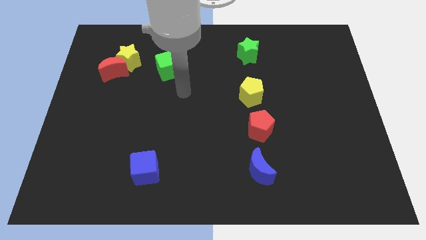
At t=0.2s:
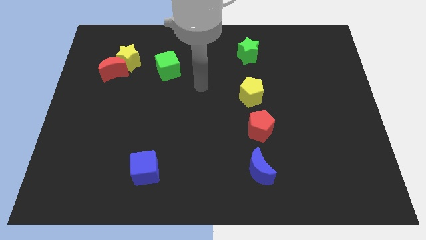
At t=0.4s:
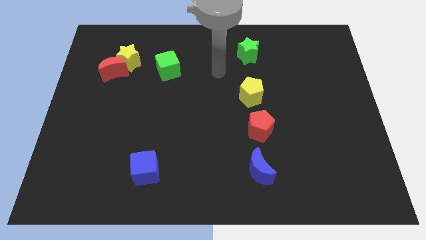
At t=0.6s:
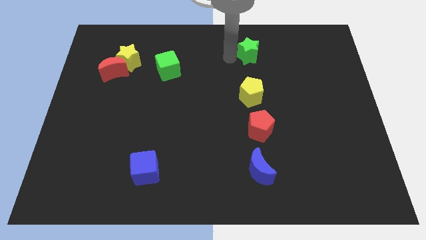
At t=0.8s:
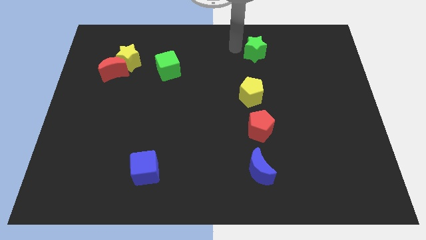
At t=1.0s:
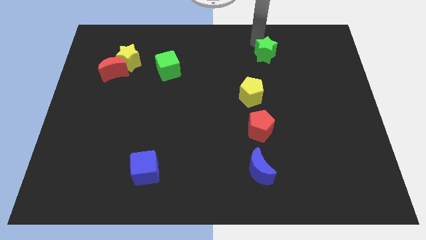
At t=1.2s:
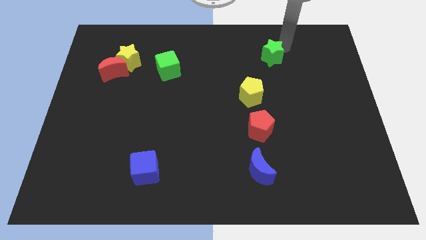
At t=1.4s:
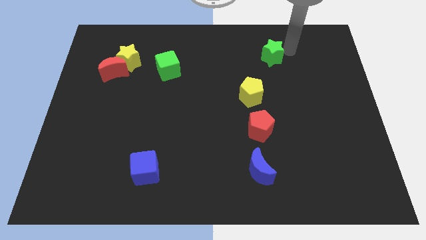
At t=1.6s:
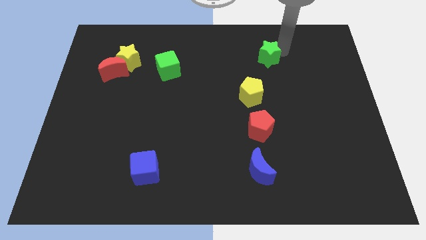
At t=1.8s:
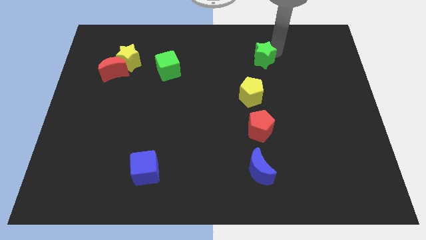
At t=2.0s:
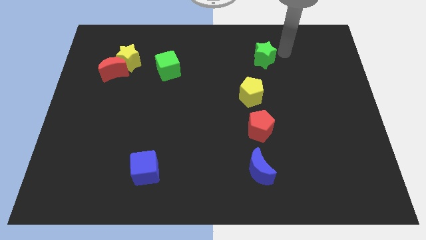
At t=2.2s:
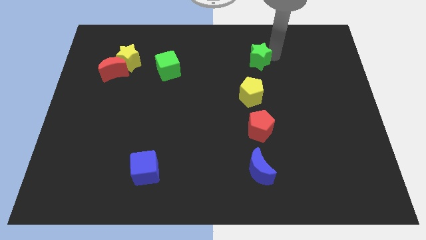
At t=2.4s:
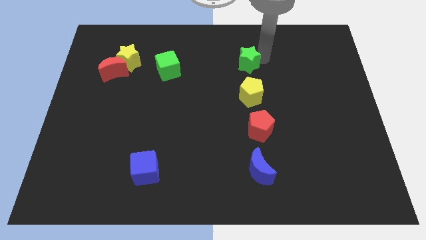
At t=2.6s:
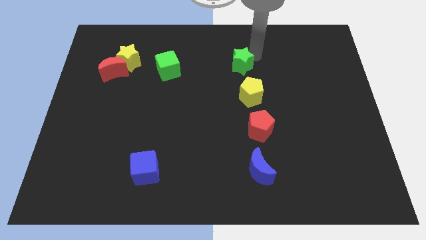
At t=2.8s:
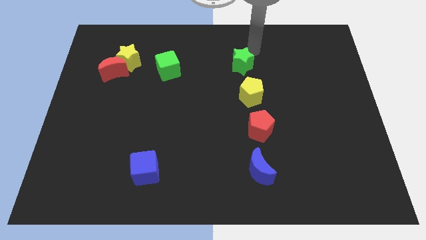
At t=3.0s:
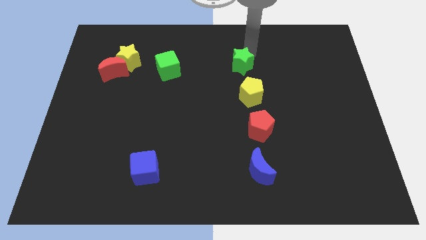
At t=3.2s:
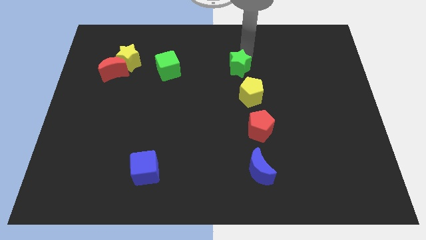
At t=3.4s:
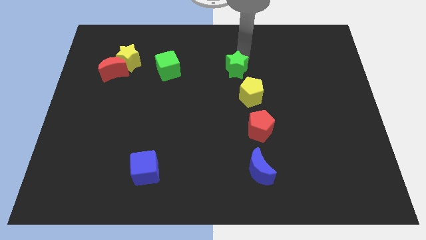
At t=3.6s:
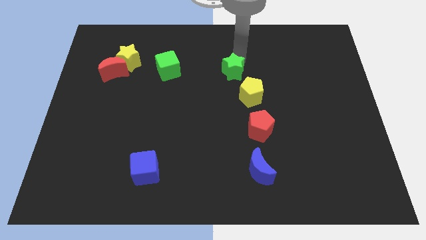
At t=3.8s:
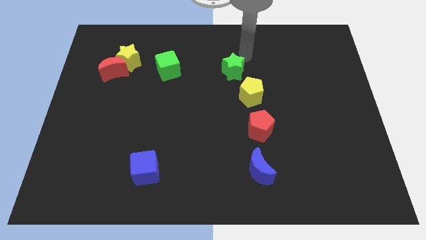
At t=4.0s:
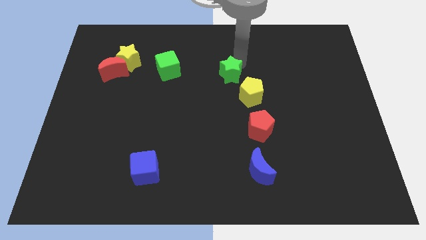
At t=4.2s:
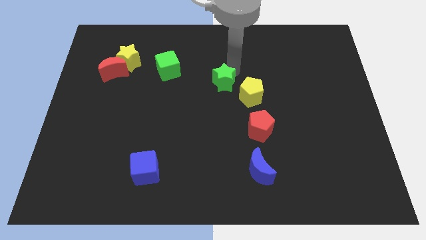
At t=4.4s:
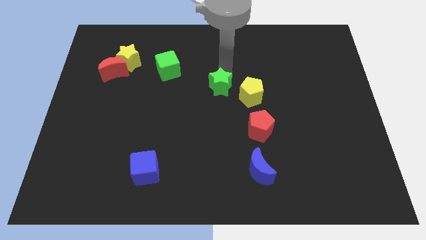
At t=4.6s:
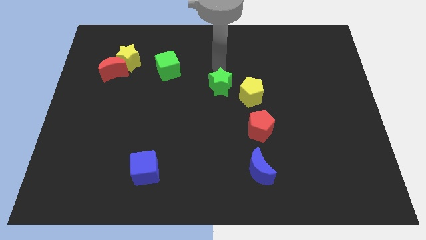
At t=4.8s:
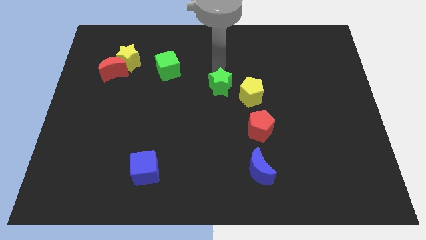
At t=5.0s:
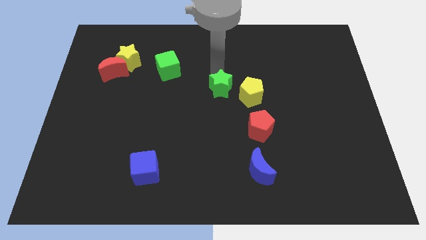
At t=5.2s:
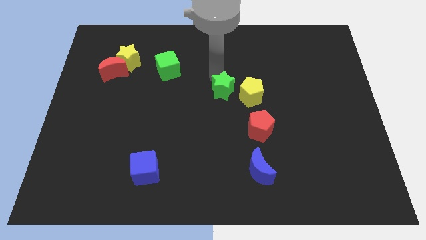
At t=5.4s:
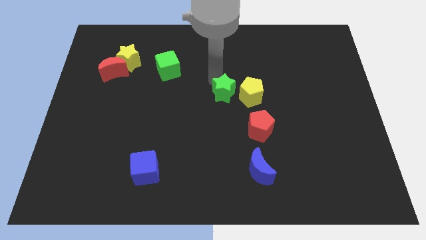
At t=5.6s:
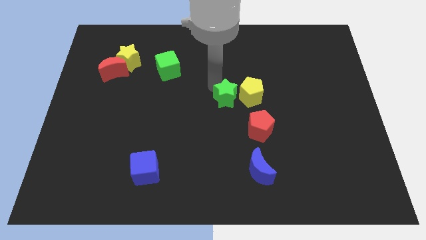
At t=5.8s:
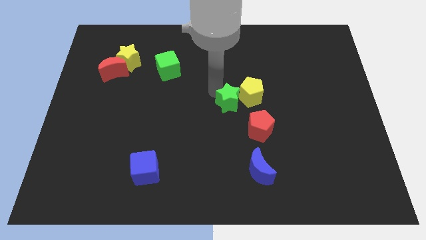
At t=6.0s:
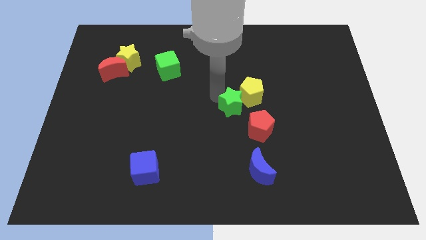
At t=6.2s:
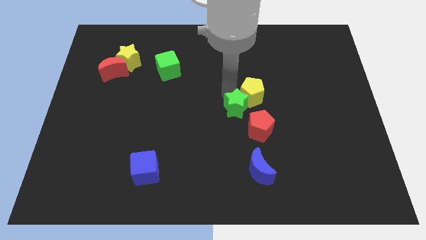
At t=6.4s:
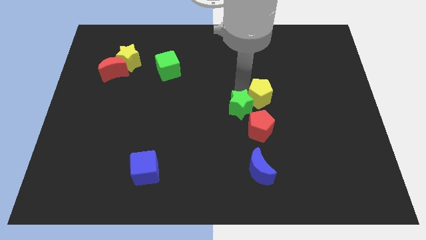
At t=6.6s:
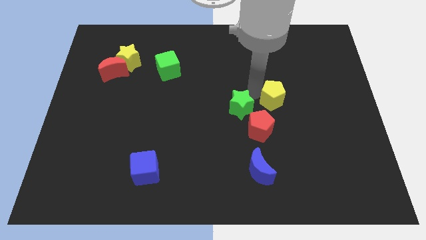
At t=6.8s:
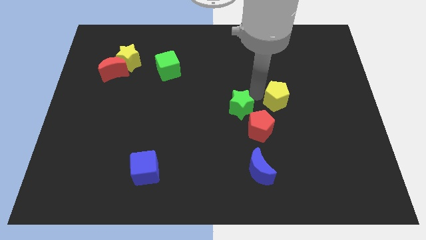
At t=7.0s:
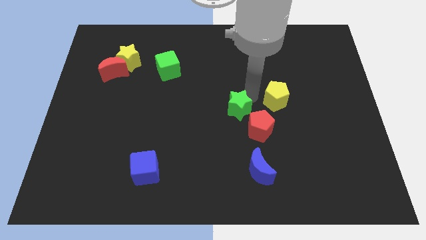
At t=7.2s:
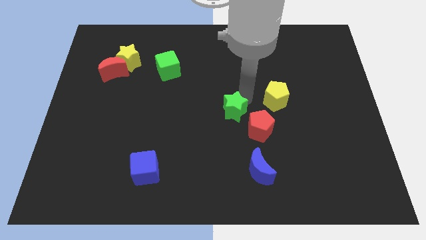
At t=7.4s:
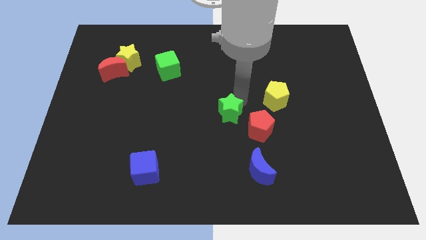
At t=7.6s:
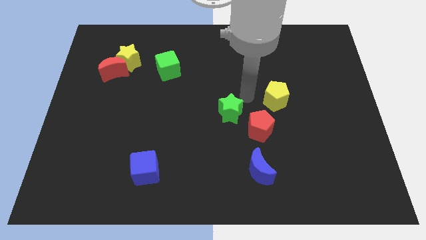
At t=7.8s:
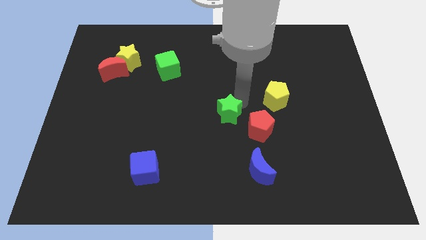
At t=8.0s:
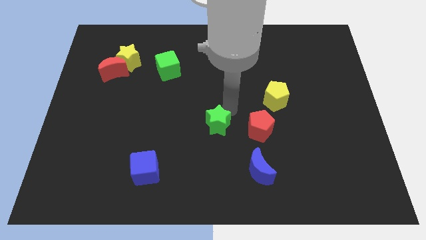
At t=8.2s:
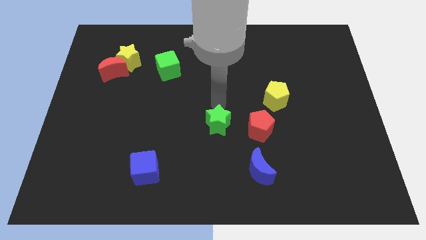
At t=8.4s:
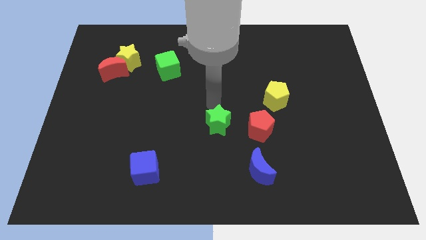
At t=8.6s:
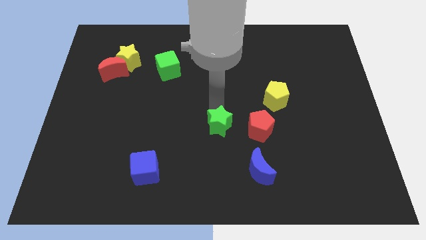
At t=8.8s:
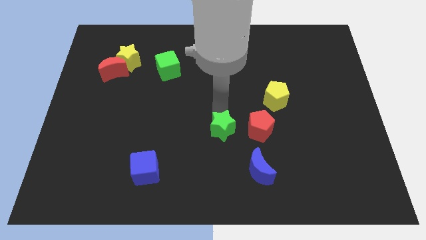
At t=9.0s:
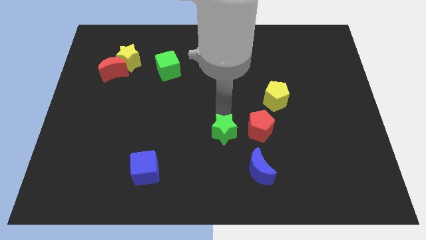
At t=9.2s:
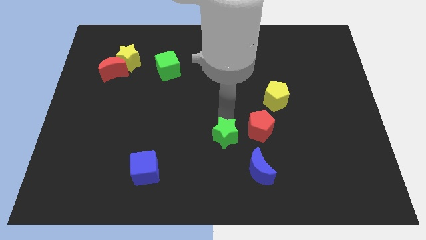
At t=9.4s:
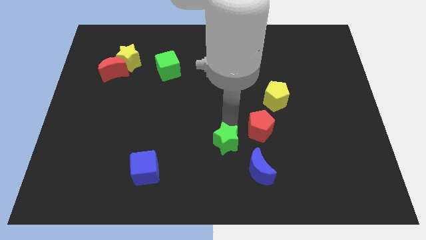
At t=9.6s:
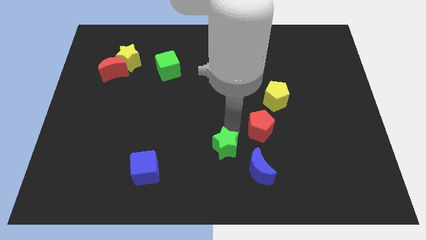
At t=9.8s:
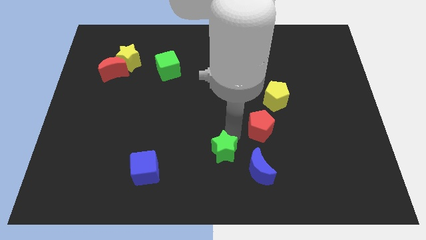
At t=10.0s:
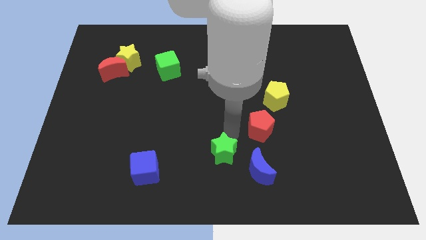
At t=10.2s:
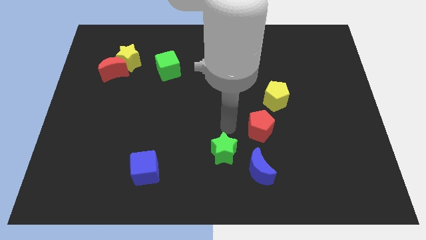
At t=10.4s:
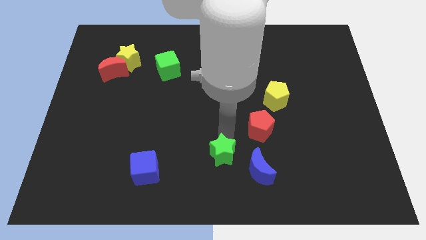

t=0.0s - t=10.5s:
move the green star to the bottom side

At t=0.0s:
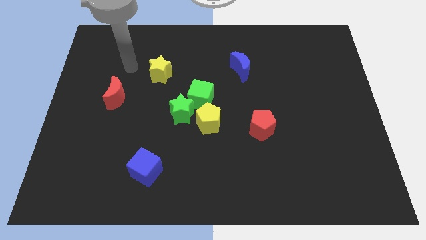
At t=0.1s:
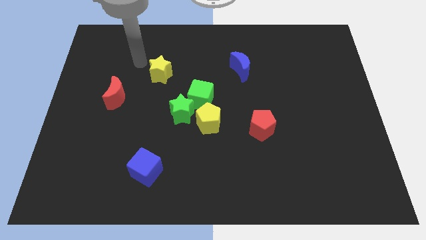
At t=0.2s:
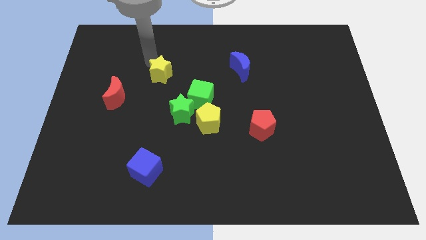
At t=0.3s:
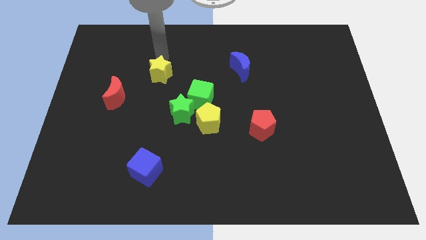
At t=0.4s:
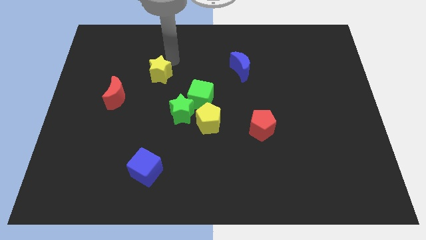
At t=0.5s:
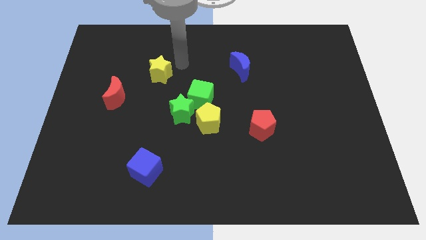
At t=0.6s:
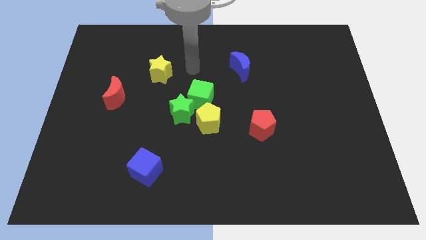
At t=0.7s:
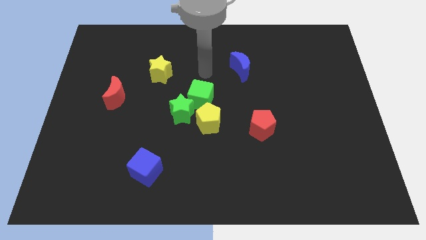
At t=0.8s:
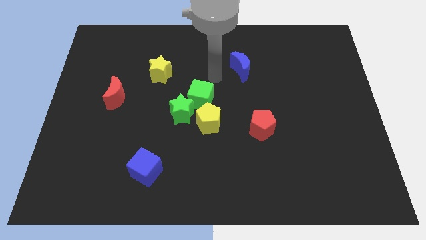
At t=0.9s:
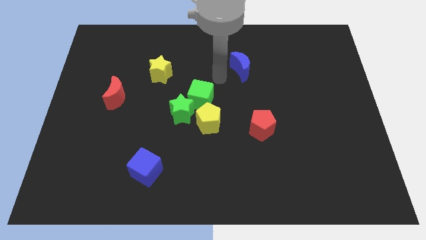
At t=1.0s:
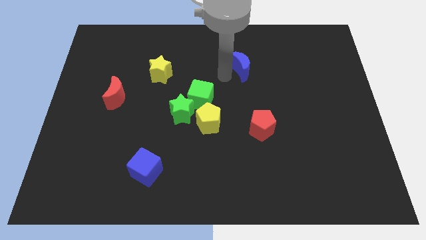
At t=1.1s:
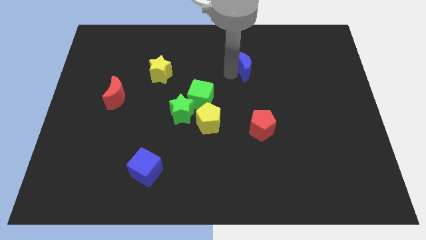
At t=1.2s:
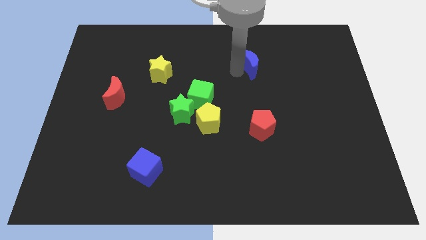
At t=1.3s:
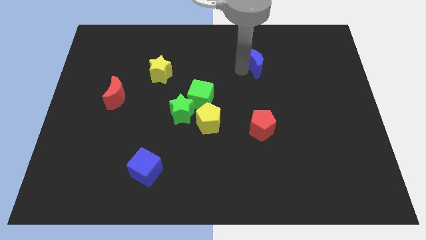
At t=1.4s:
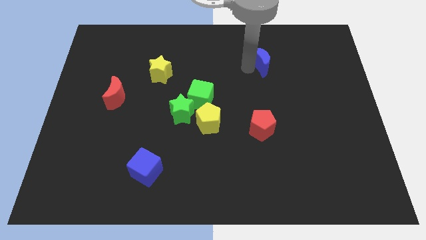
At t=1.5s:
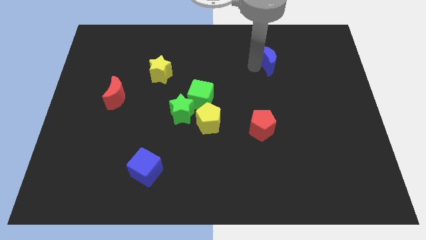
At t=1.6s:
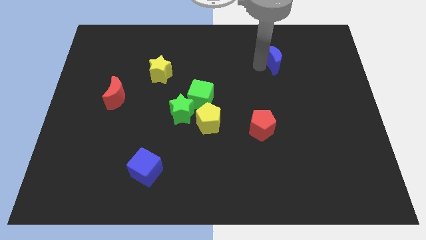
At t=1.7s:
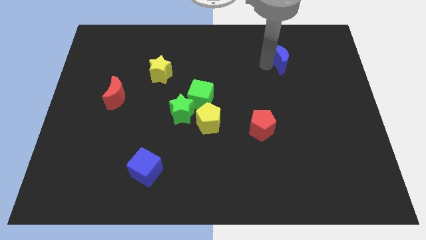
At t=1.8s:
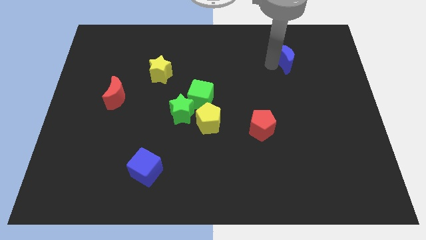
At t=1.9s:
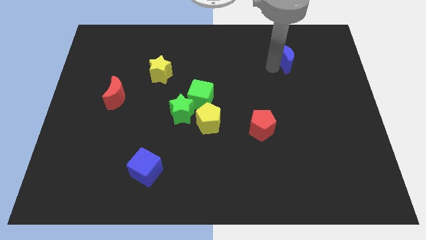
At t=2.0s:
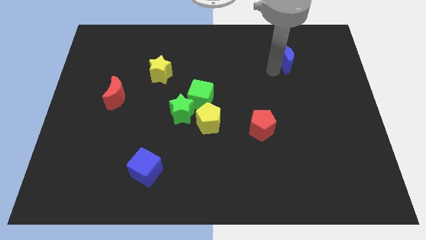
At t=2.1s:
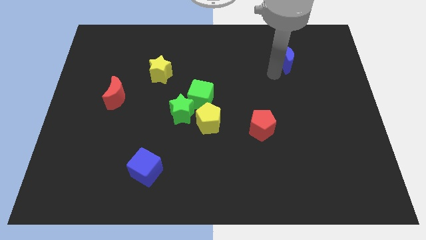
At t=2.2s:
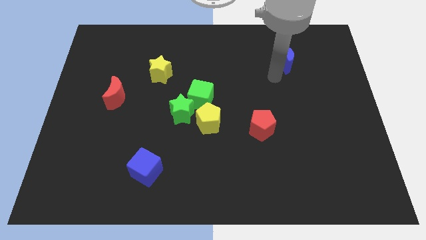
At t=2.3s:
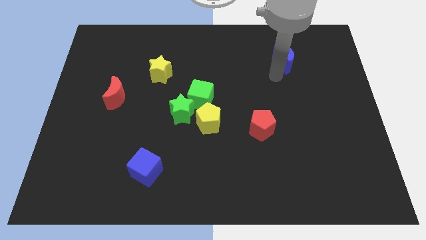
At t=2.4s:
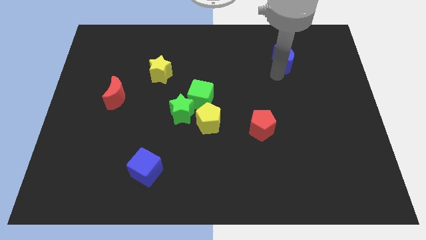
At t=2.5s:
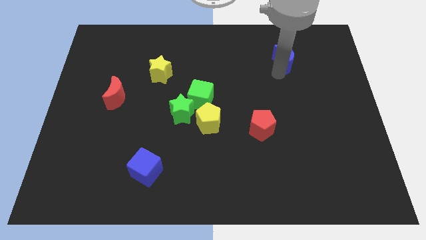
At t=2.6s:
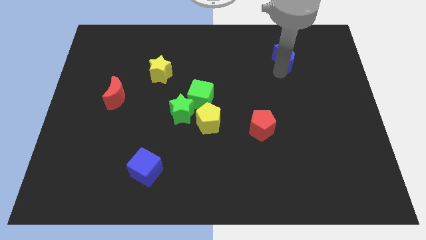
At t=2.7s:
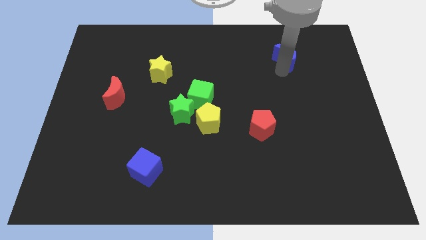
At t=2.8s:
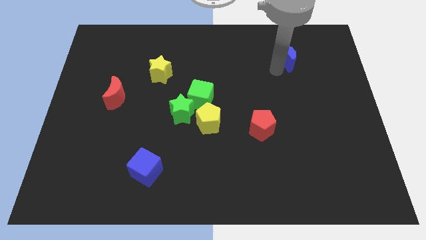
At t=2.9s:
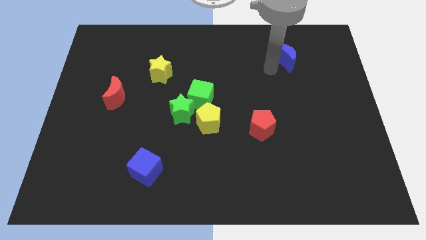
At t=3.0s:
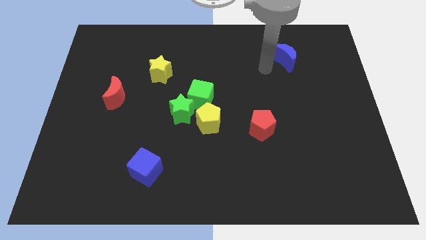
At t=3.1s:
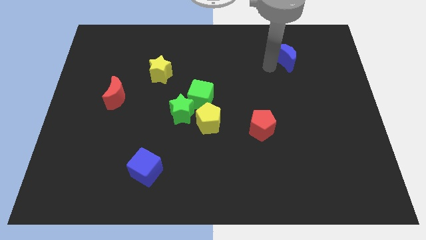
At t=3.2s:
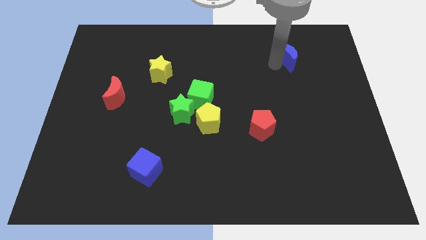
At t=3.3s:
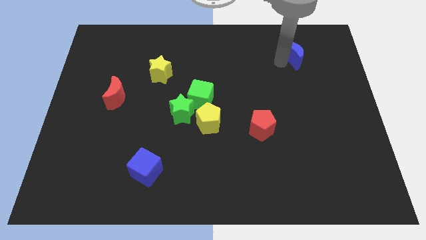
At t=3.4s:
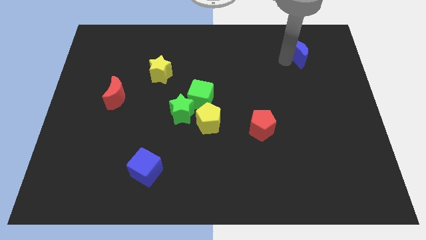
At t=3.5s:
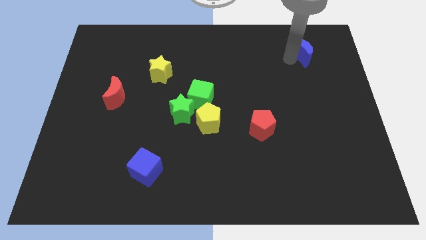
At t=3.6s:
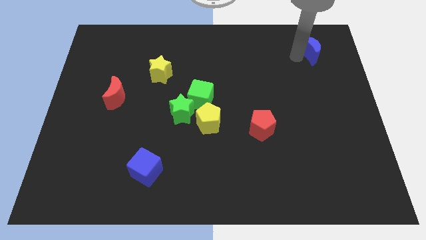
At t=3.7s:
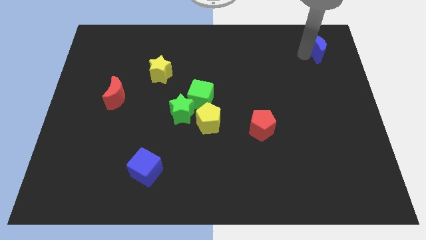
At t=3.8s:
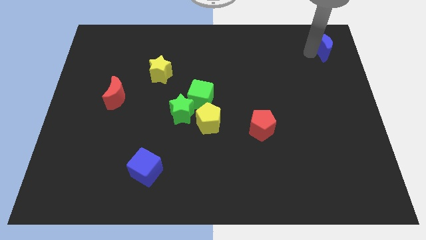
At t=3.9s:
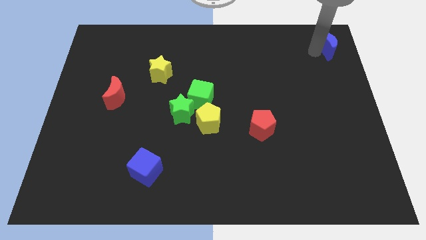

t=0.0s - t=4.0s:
put the blue moon to the top right corner
